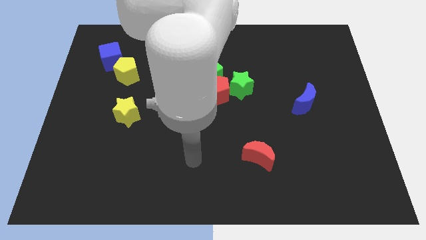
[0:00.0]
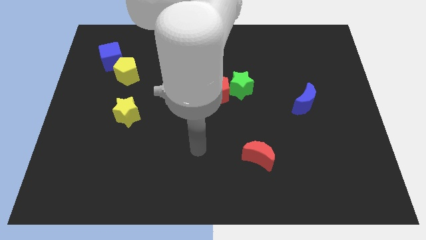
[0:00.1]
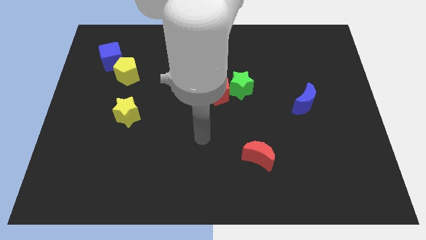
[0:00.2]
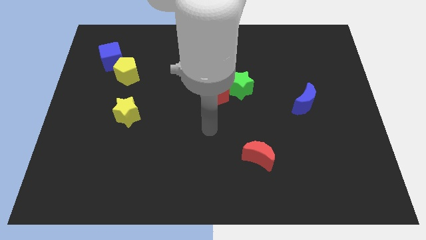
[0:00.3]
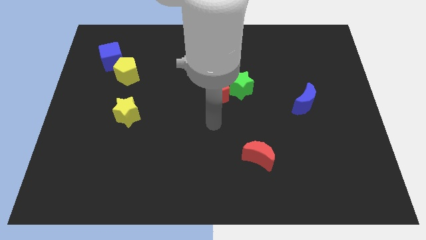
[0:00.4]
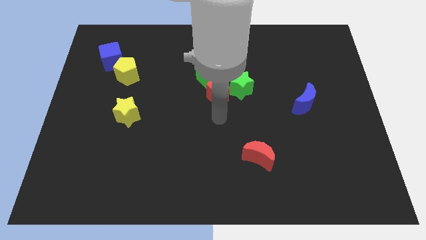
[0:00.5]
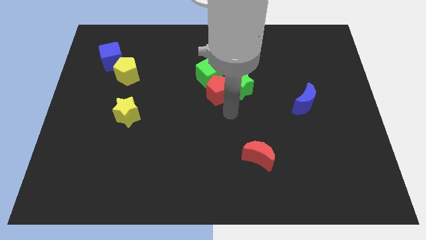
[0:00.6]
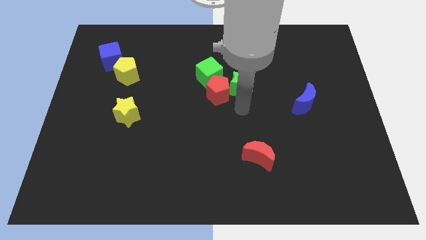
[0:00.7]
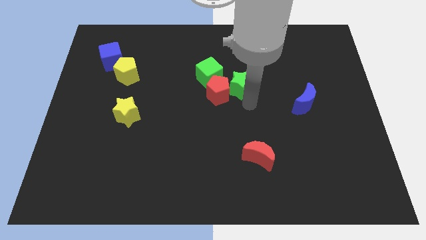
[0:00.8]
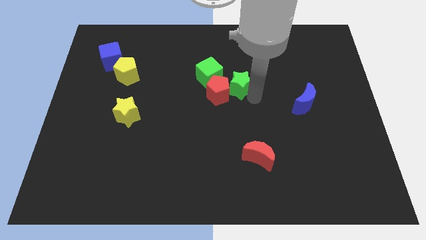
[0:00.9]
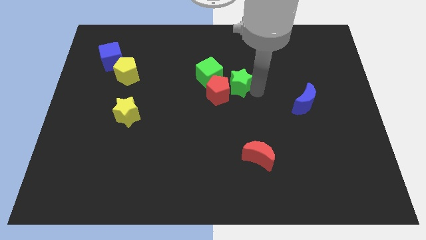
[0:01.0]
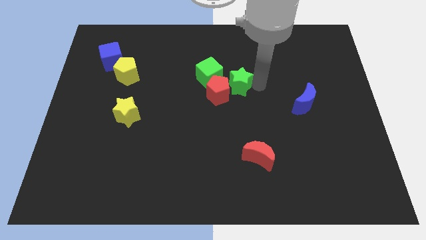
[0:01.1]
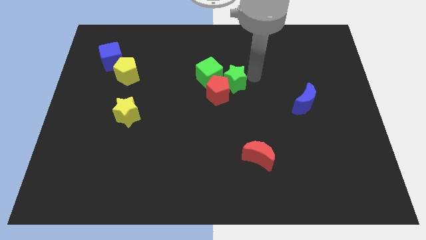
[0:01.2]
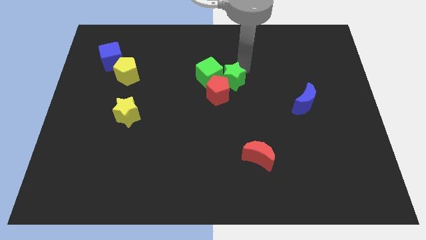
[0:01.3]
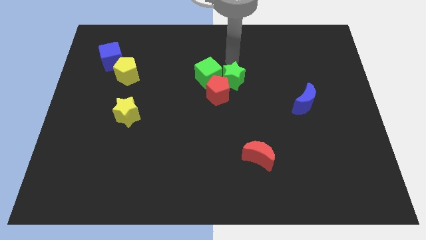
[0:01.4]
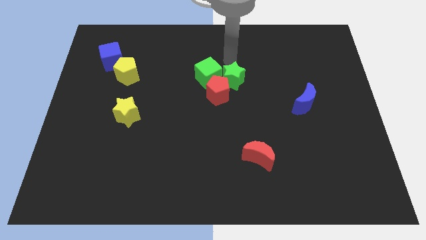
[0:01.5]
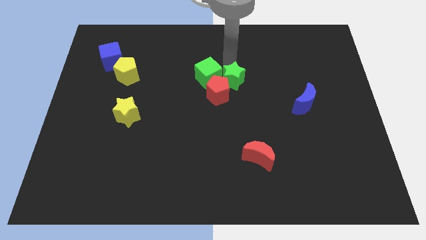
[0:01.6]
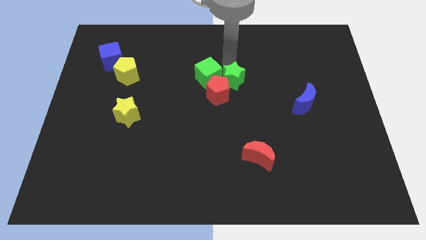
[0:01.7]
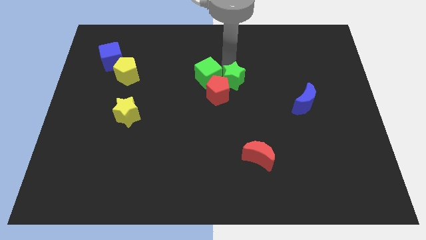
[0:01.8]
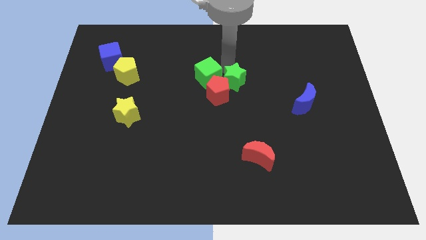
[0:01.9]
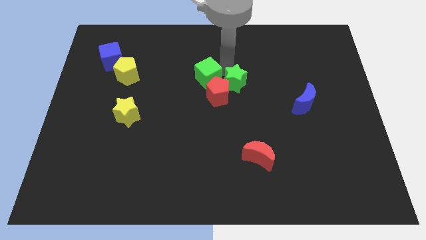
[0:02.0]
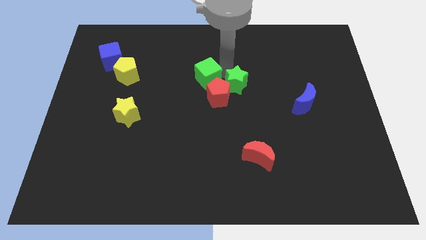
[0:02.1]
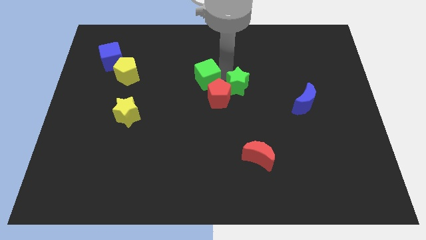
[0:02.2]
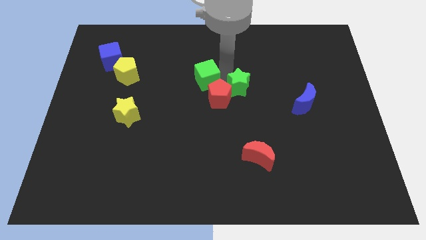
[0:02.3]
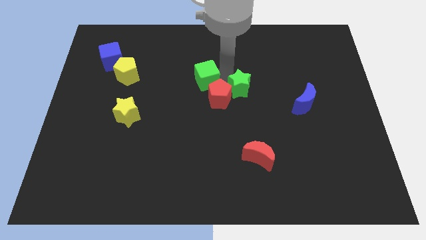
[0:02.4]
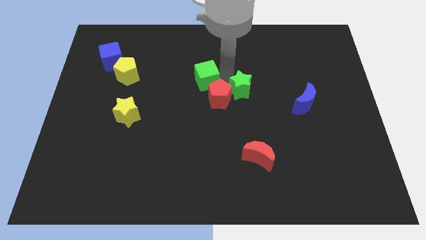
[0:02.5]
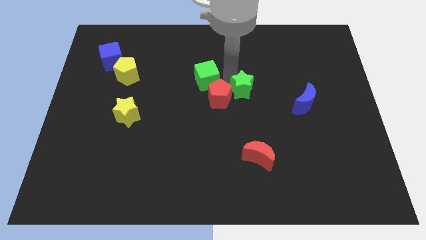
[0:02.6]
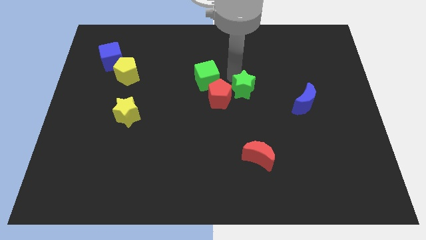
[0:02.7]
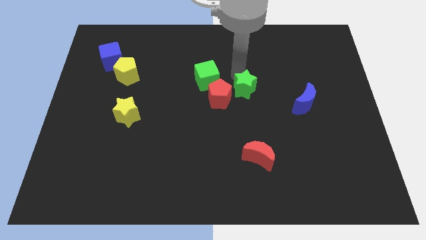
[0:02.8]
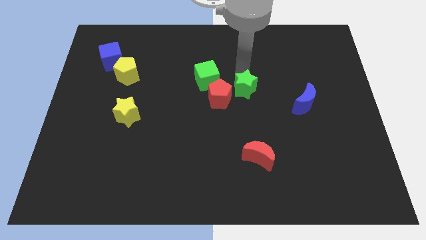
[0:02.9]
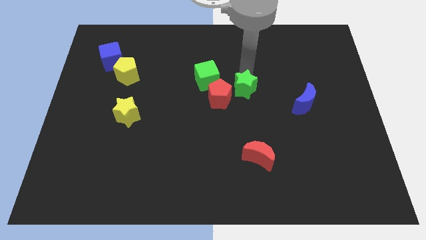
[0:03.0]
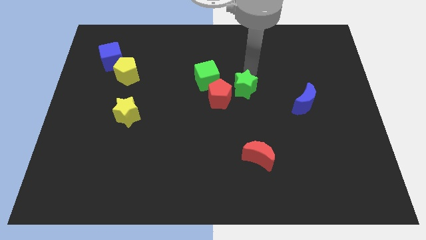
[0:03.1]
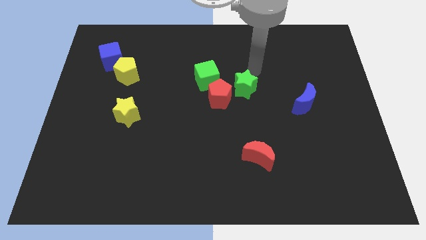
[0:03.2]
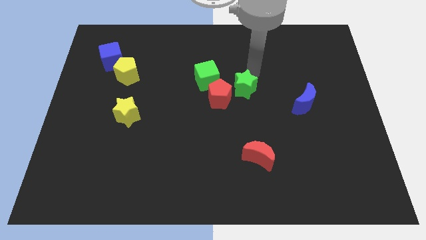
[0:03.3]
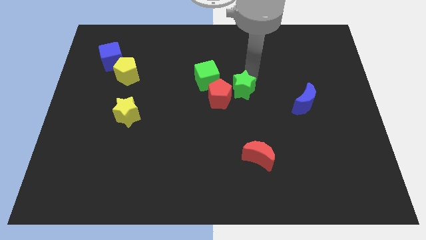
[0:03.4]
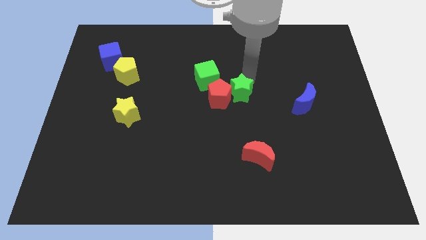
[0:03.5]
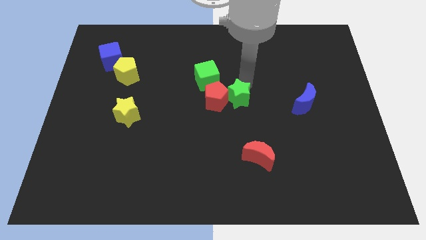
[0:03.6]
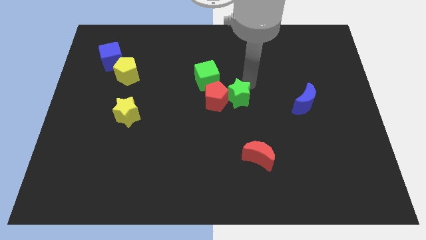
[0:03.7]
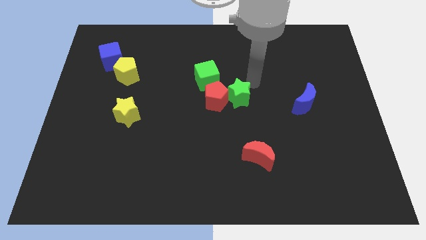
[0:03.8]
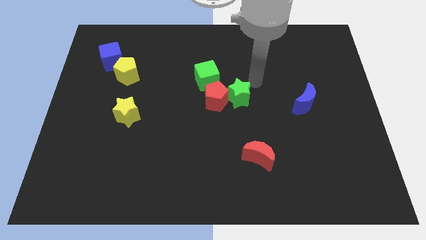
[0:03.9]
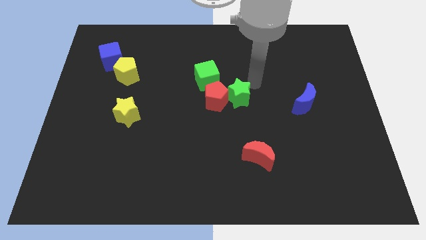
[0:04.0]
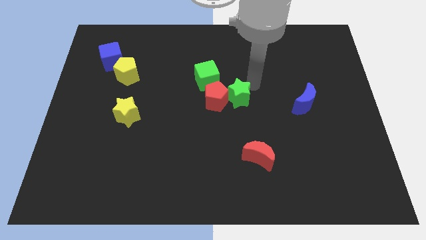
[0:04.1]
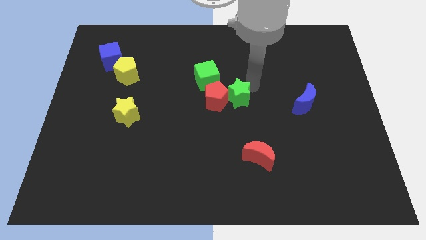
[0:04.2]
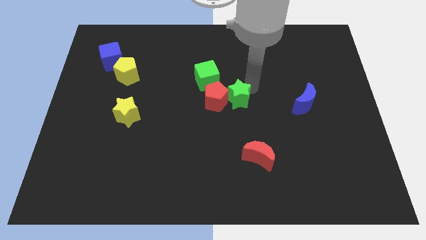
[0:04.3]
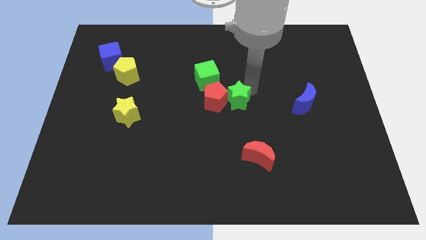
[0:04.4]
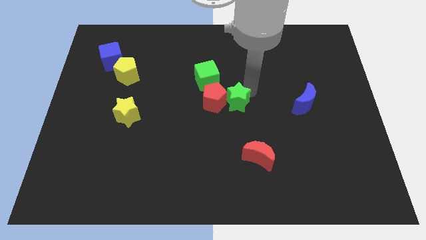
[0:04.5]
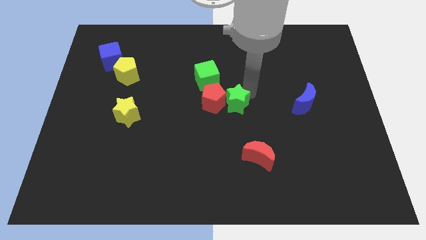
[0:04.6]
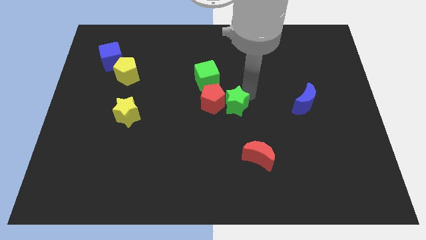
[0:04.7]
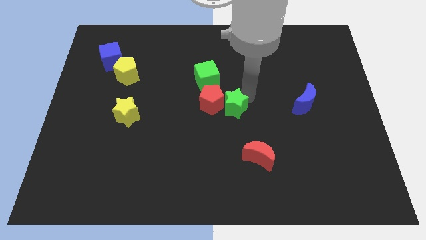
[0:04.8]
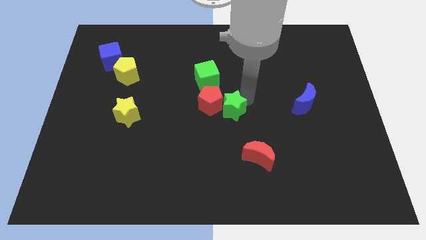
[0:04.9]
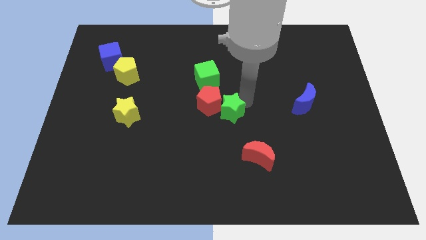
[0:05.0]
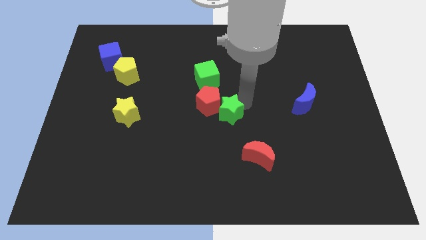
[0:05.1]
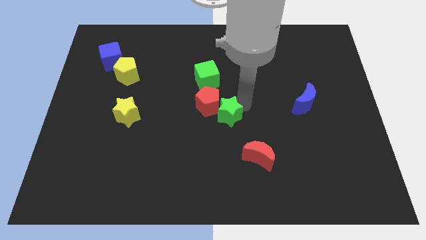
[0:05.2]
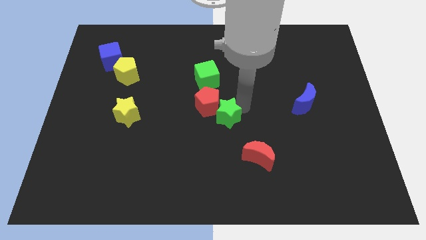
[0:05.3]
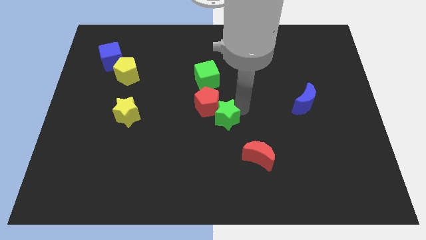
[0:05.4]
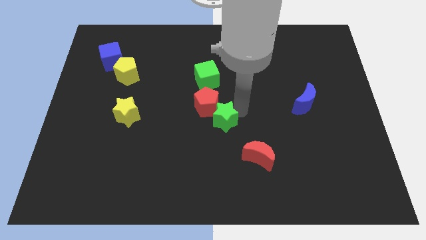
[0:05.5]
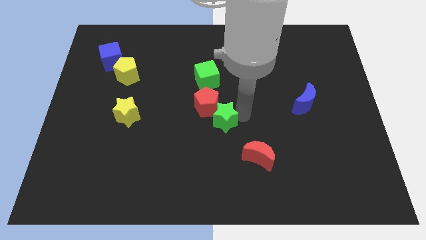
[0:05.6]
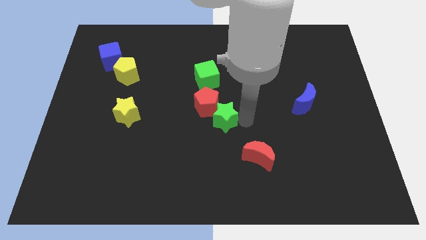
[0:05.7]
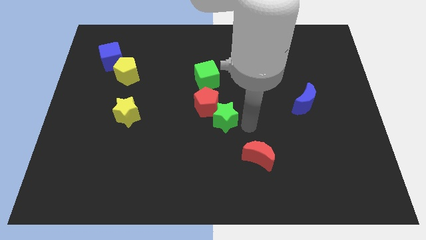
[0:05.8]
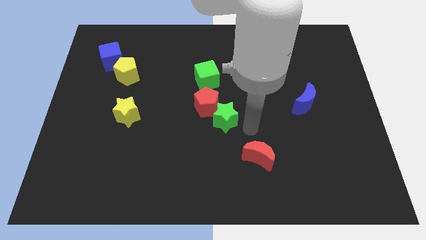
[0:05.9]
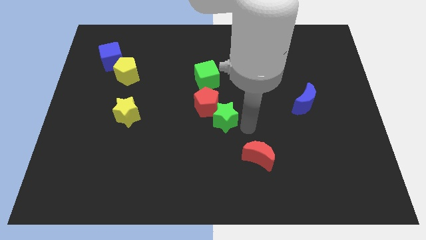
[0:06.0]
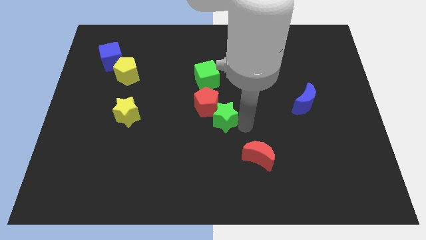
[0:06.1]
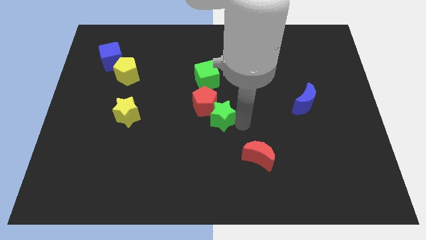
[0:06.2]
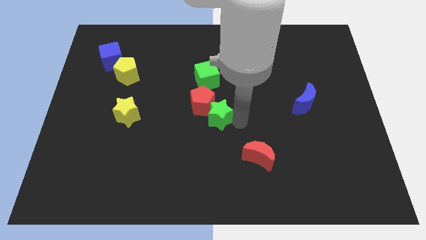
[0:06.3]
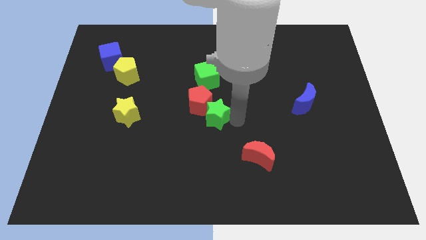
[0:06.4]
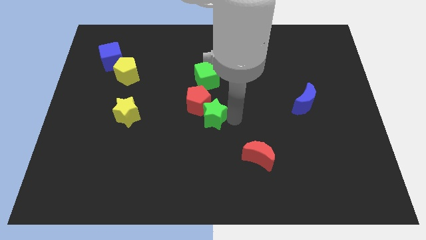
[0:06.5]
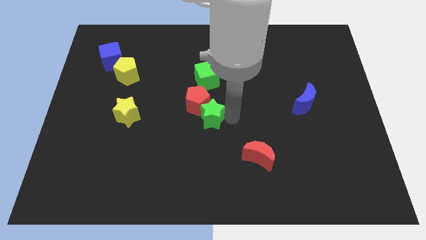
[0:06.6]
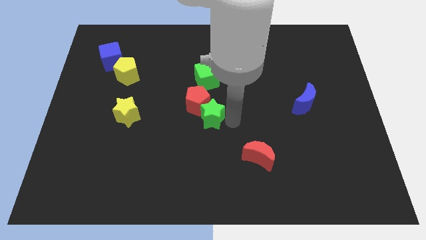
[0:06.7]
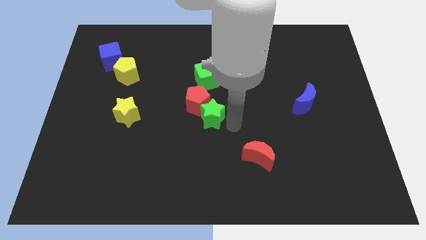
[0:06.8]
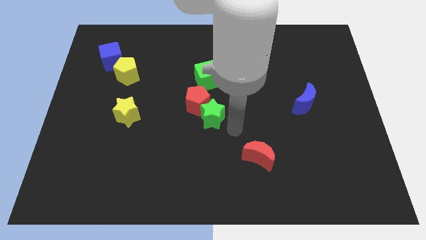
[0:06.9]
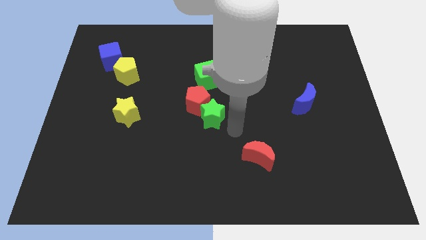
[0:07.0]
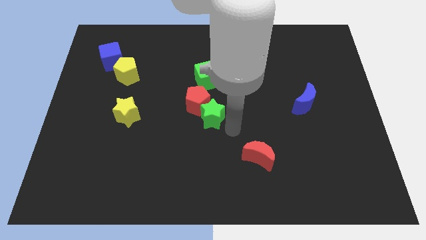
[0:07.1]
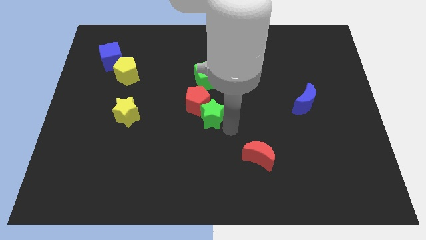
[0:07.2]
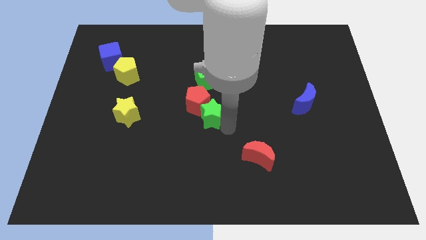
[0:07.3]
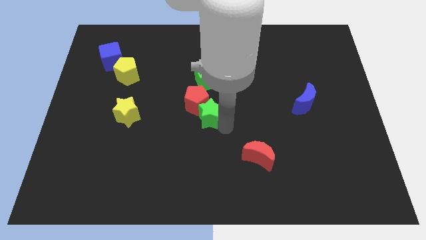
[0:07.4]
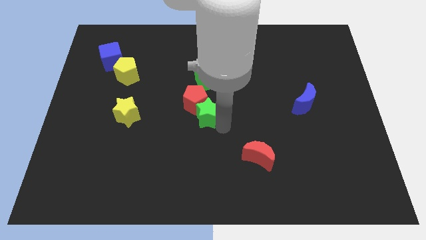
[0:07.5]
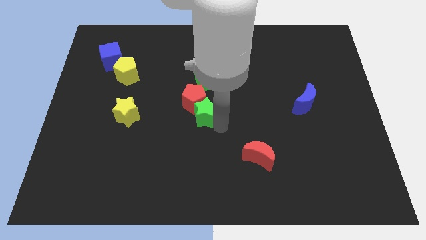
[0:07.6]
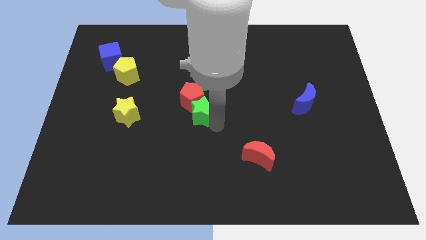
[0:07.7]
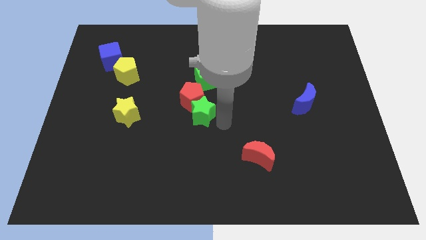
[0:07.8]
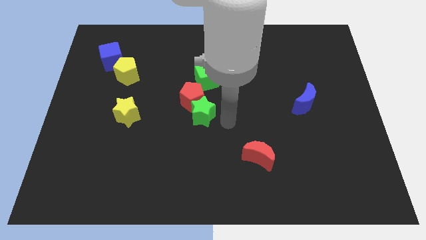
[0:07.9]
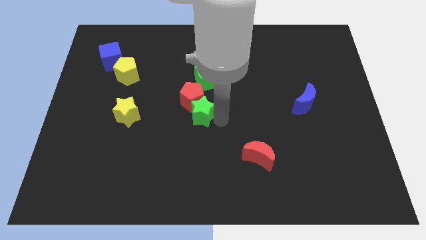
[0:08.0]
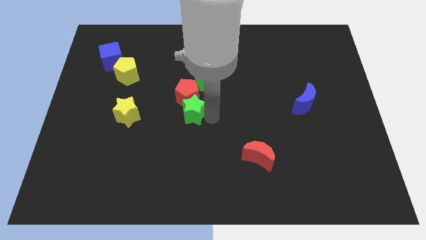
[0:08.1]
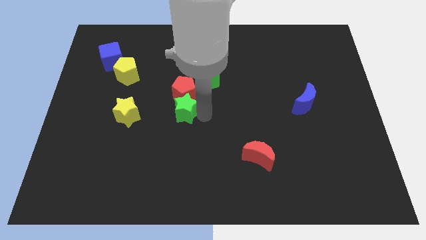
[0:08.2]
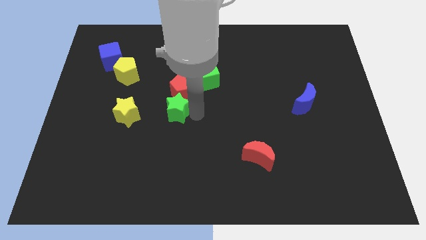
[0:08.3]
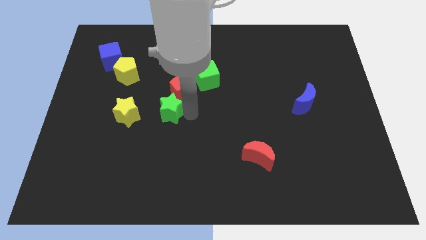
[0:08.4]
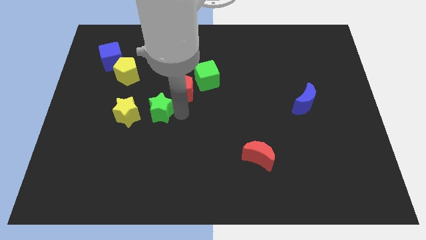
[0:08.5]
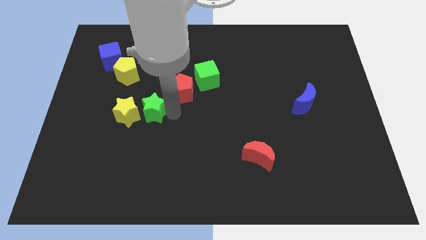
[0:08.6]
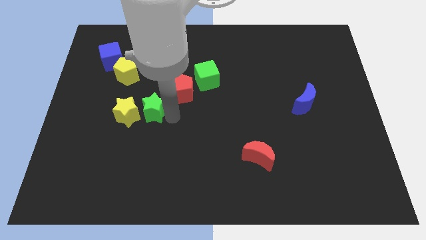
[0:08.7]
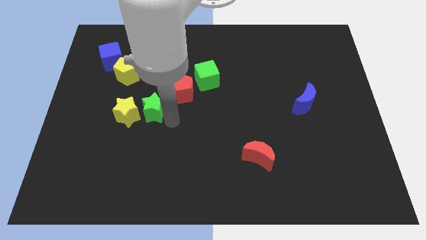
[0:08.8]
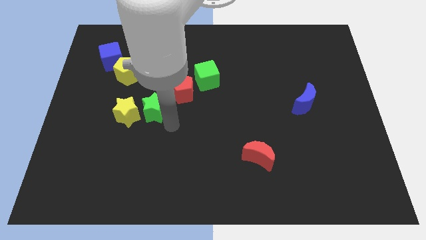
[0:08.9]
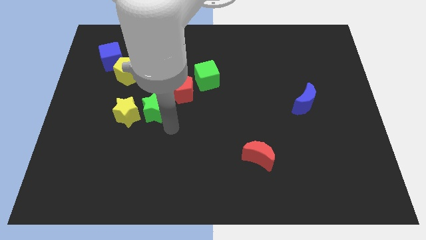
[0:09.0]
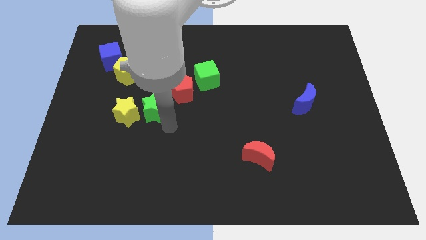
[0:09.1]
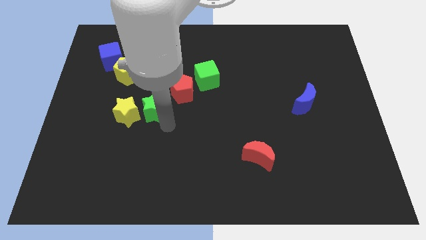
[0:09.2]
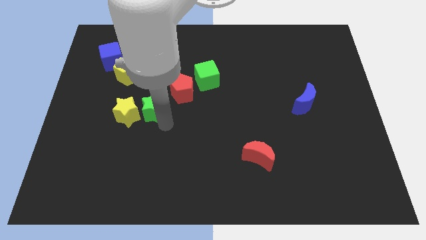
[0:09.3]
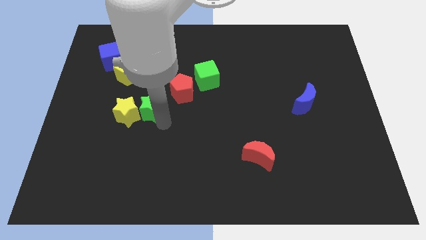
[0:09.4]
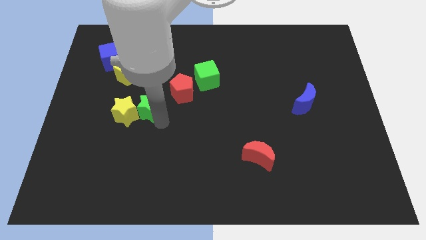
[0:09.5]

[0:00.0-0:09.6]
push the green star left
